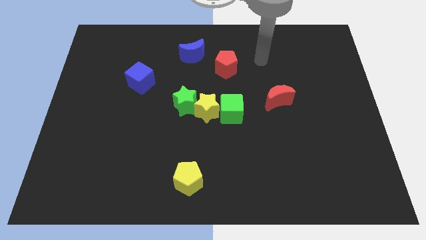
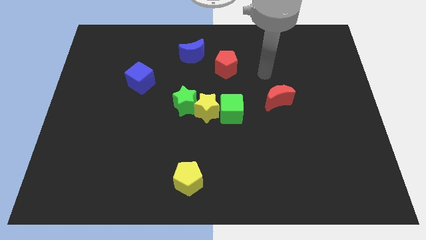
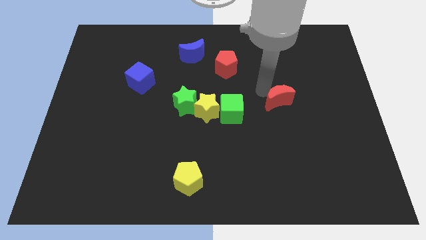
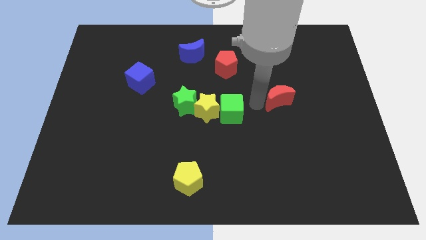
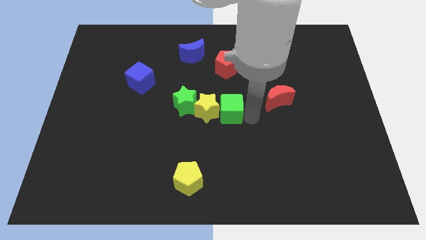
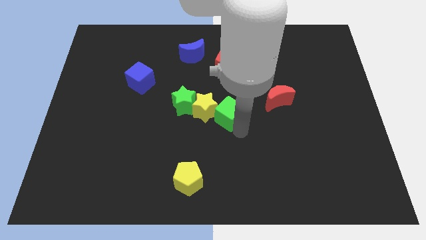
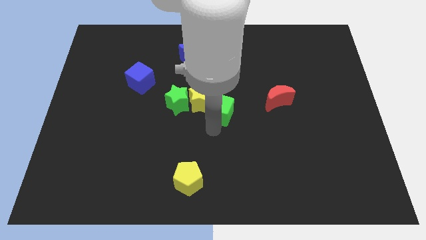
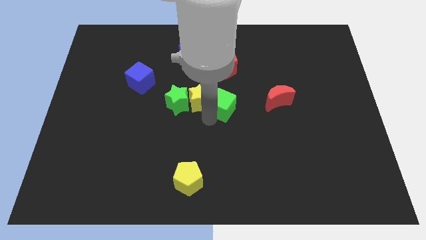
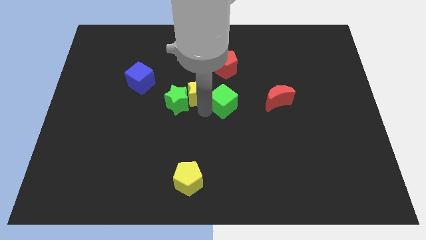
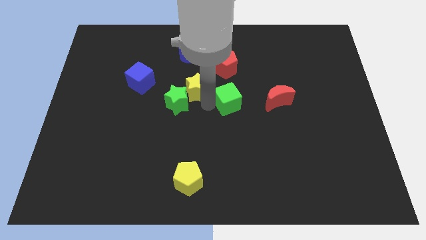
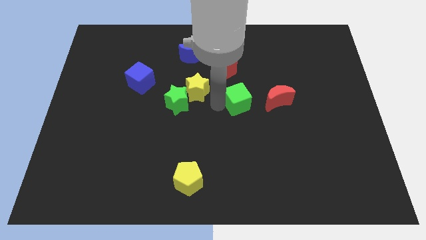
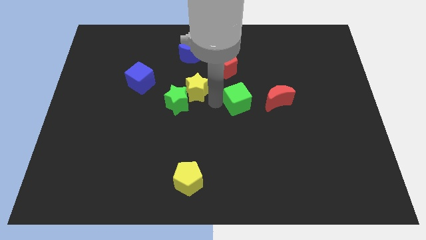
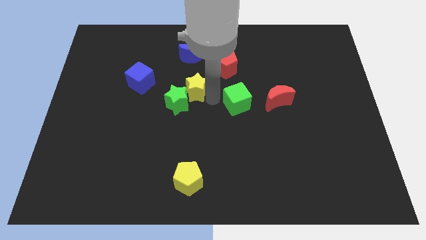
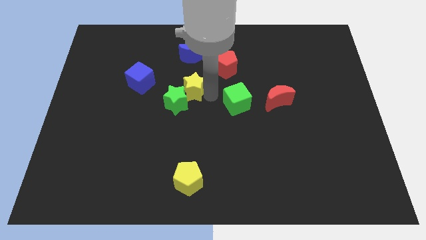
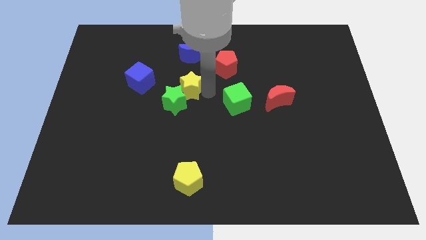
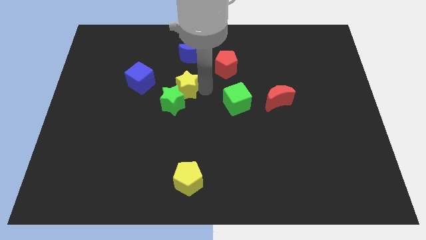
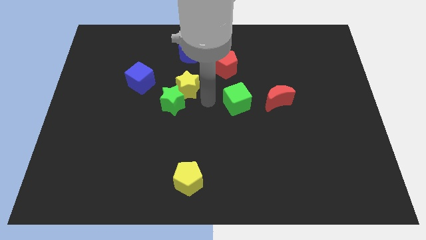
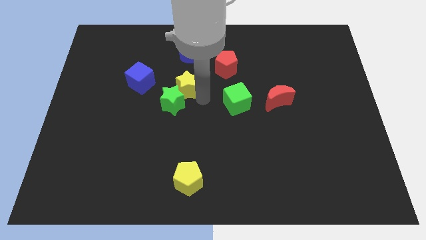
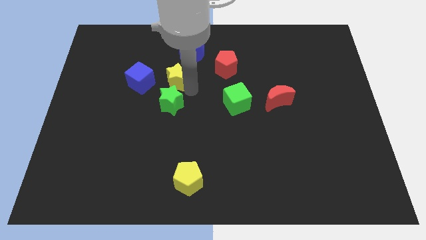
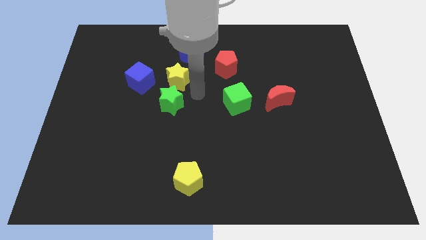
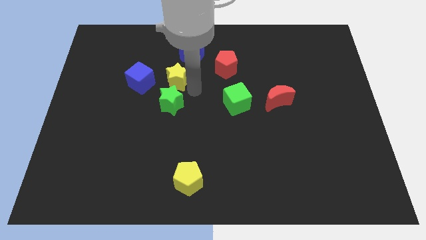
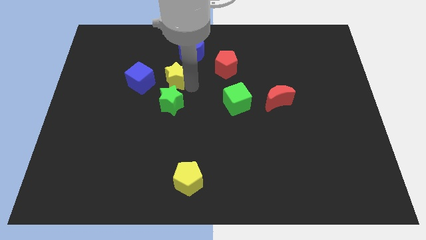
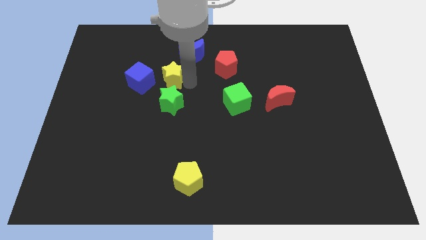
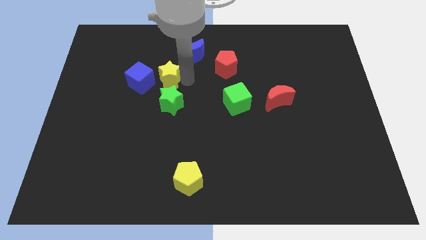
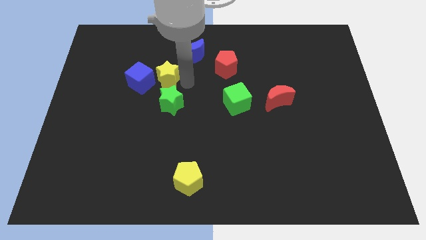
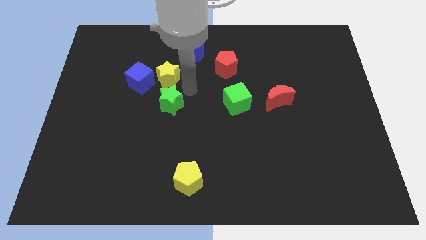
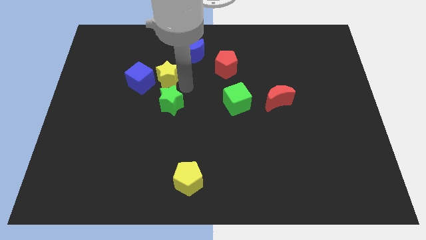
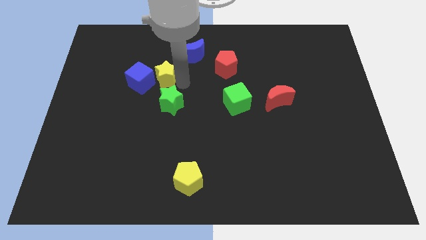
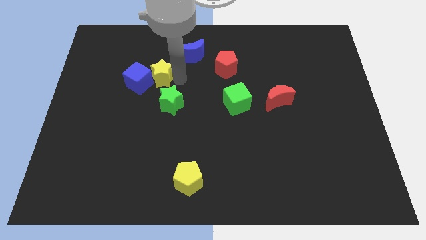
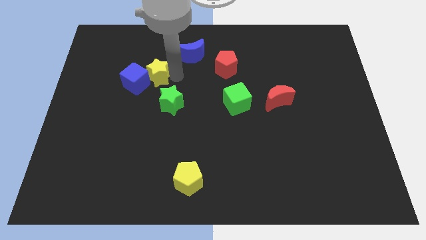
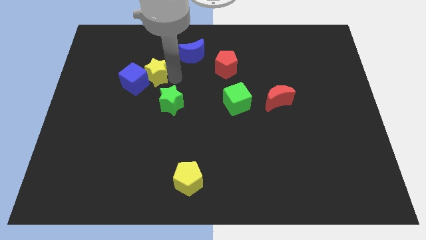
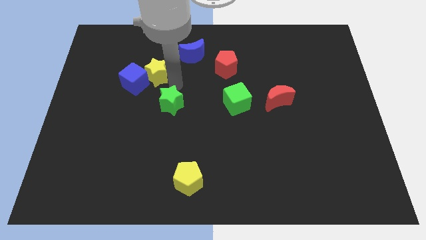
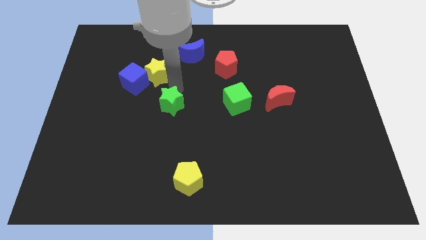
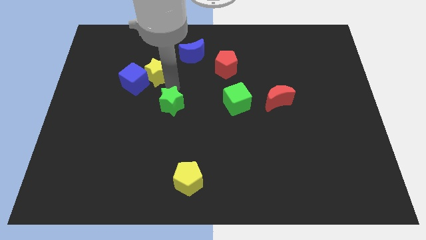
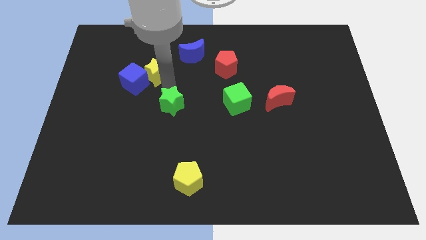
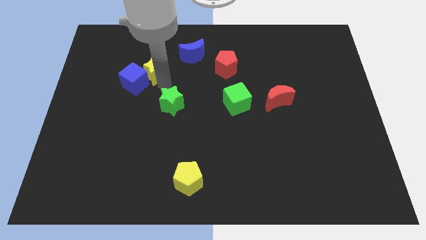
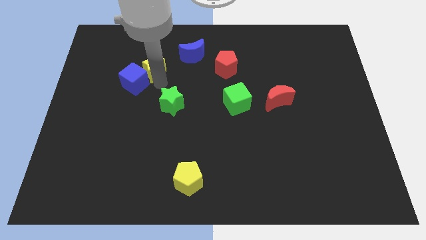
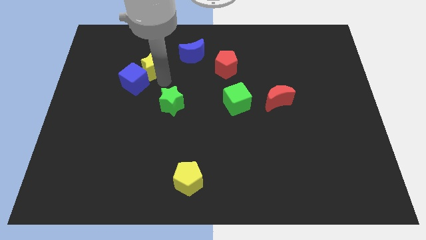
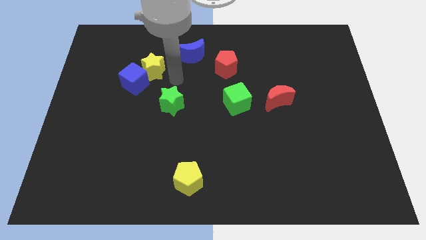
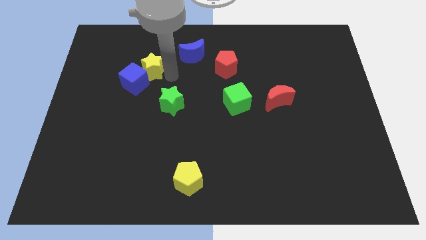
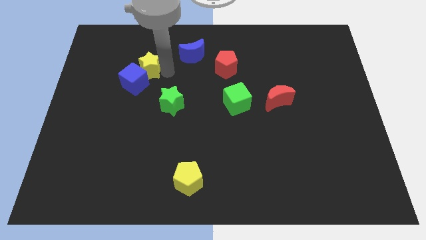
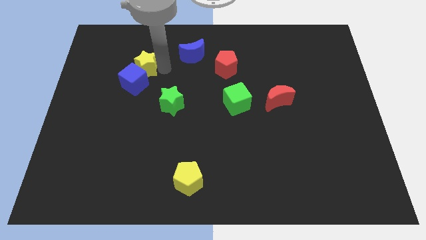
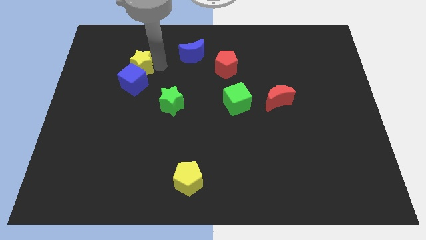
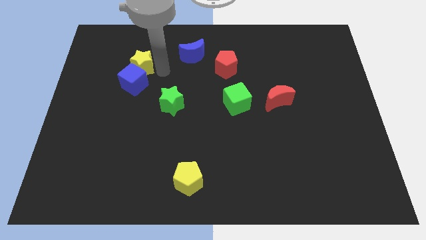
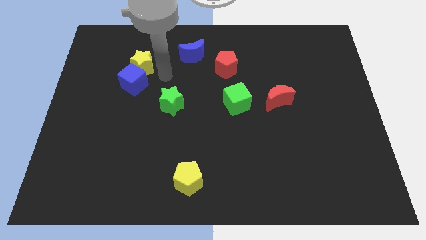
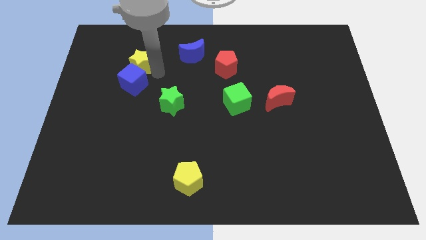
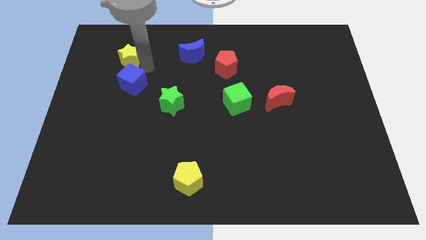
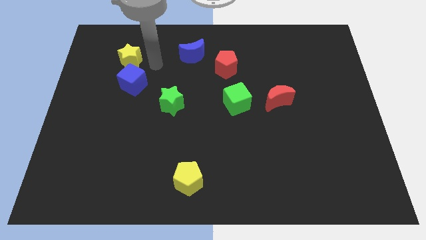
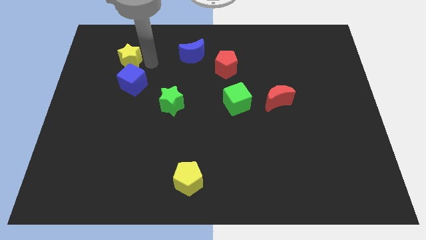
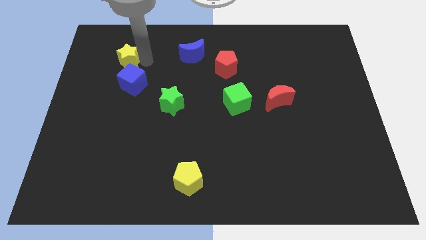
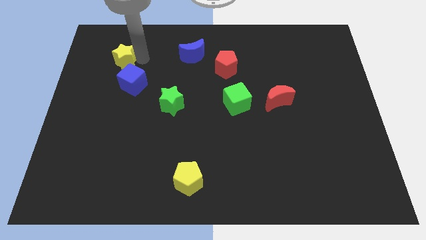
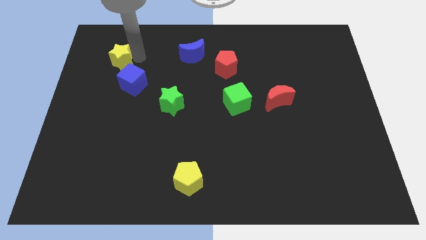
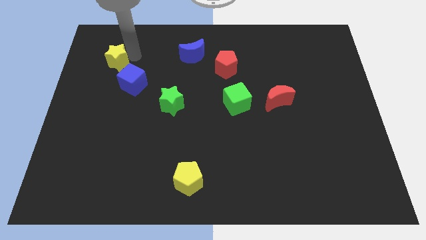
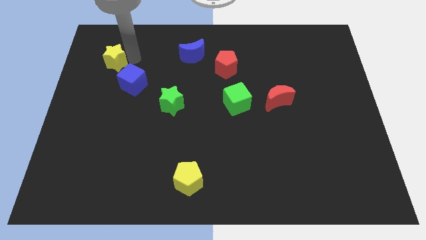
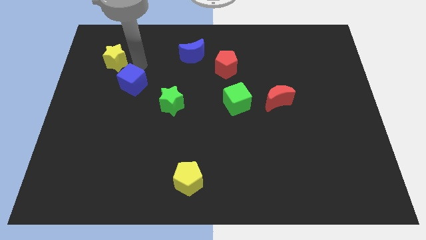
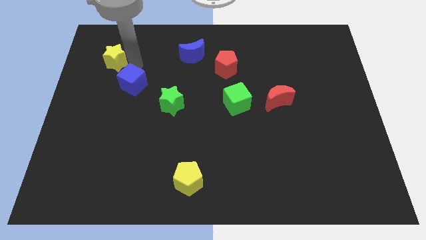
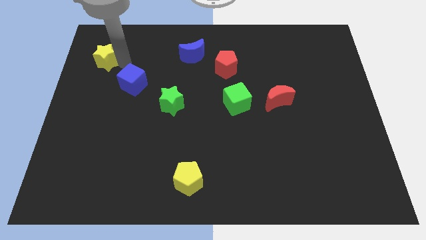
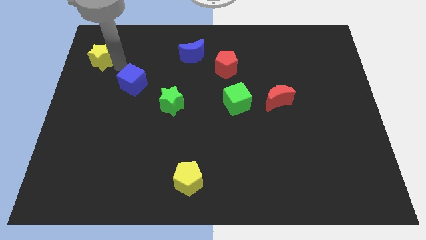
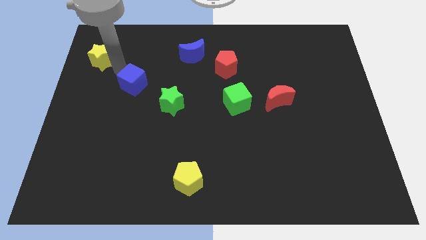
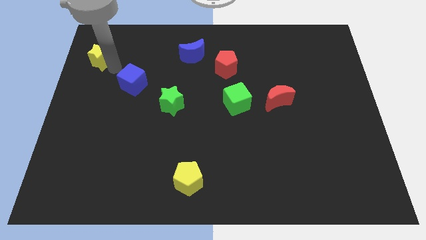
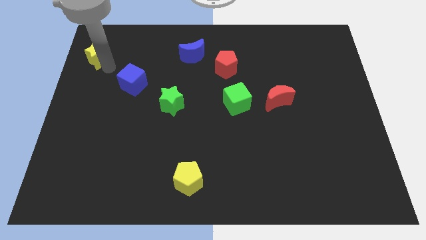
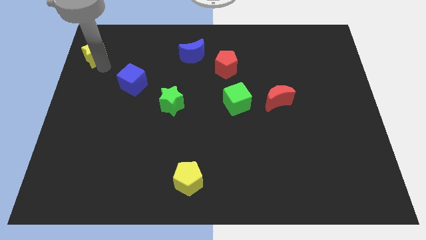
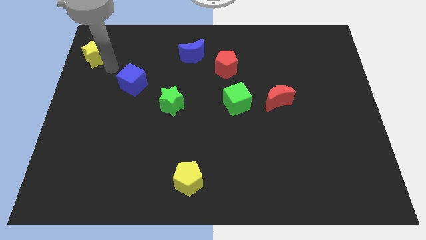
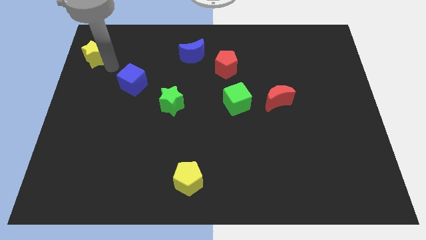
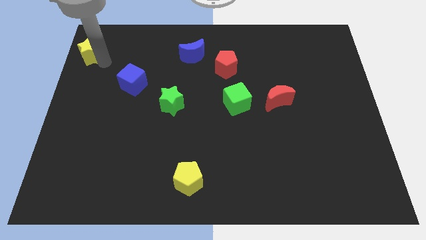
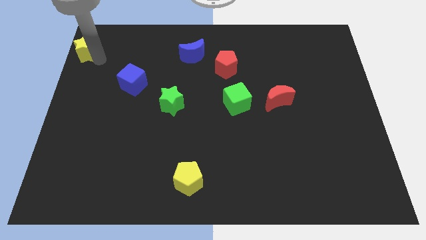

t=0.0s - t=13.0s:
put the yellow star to the top left of the board
